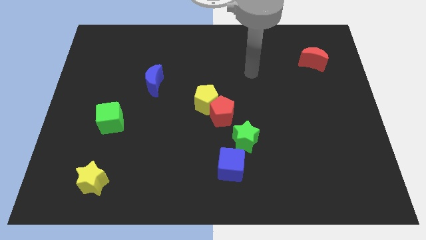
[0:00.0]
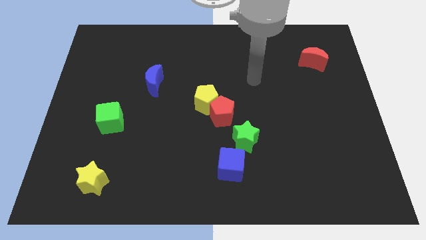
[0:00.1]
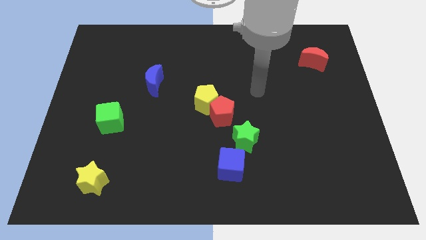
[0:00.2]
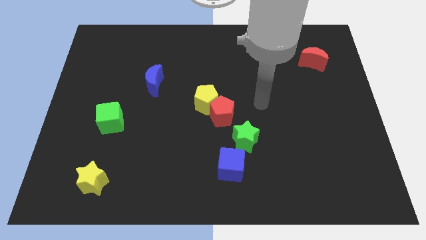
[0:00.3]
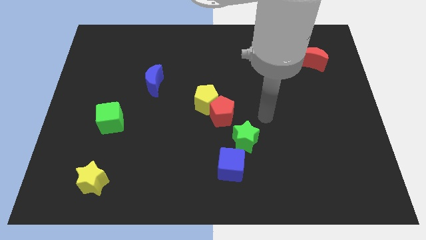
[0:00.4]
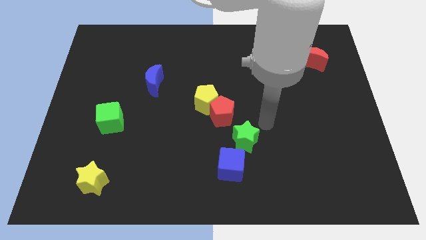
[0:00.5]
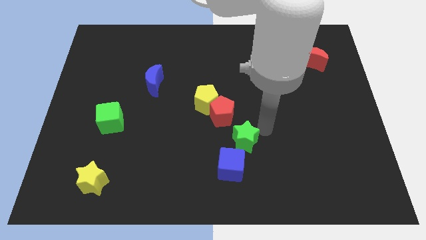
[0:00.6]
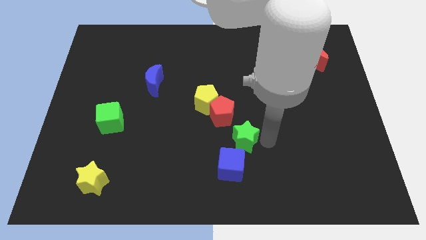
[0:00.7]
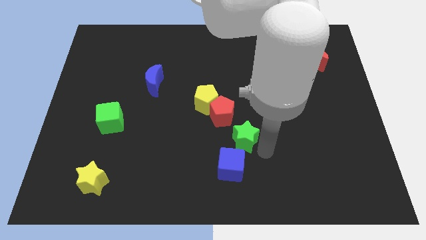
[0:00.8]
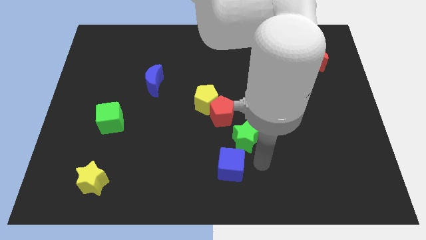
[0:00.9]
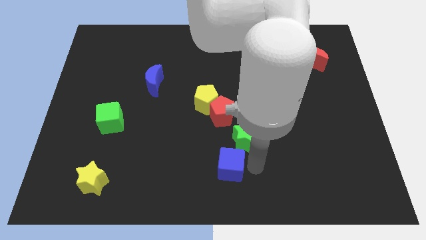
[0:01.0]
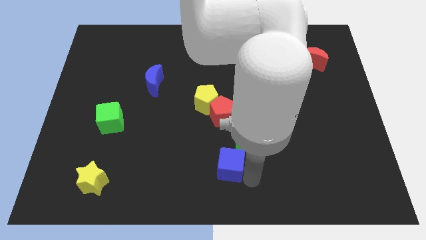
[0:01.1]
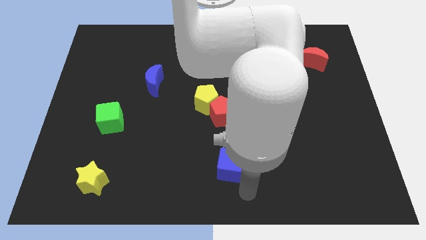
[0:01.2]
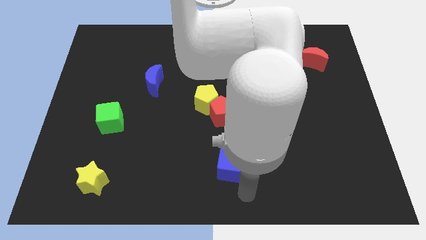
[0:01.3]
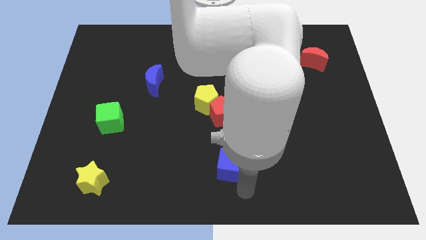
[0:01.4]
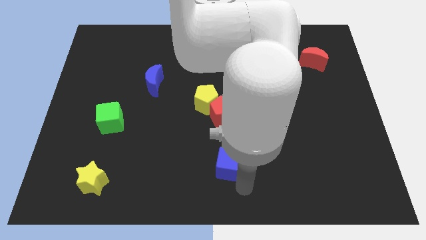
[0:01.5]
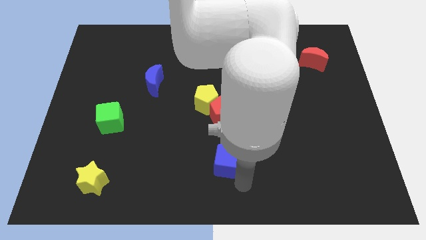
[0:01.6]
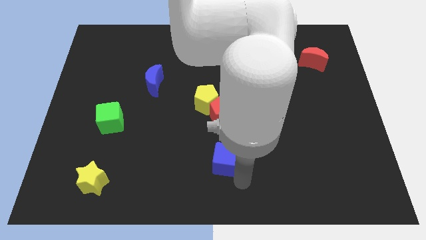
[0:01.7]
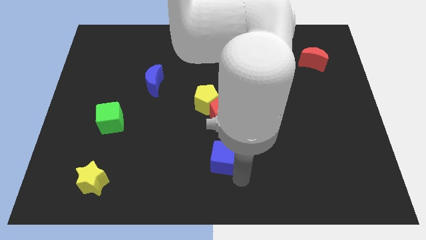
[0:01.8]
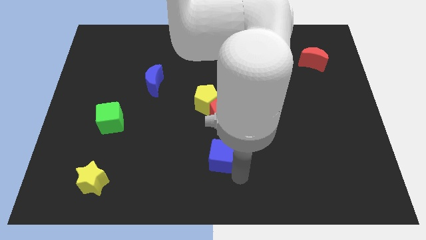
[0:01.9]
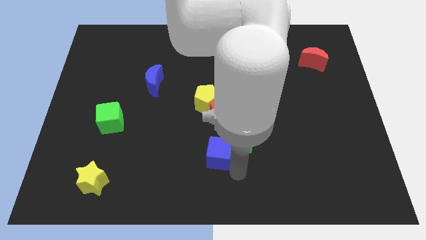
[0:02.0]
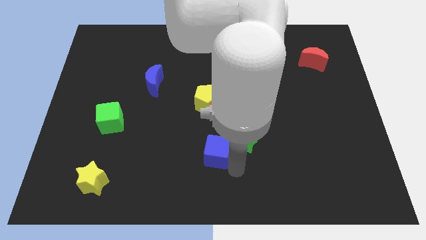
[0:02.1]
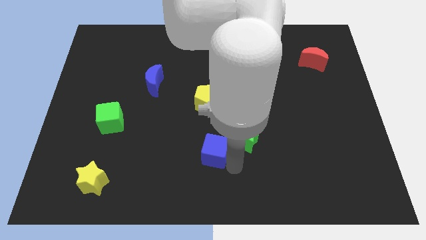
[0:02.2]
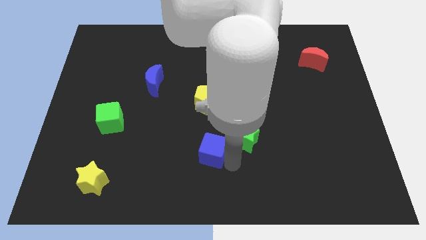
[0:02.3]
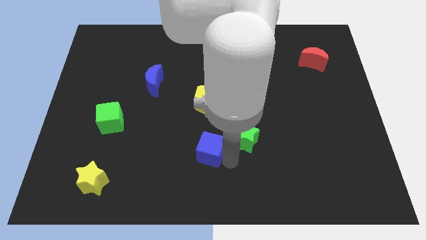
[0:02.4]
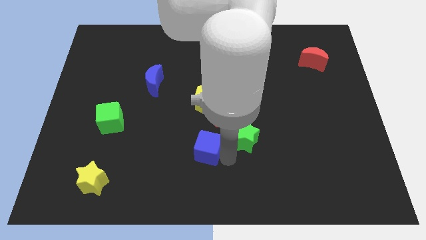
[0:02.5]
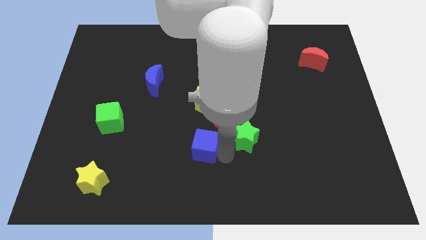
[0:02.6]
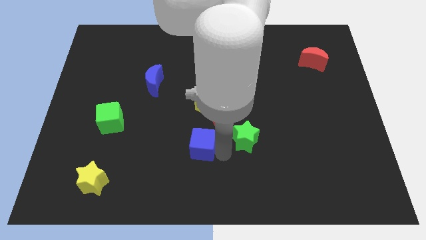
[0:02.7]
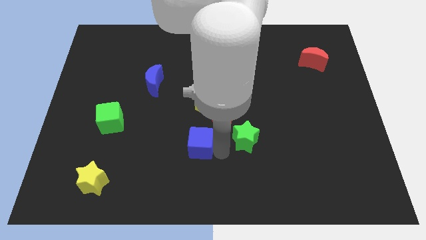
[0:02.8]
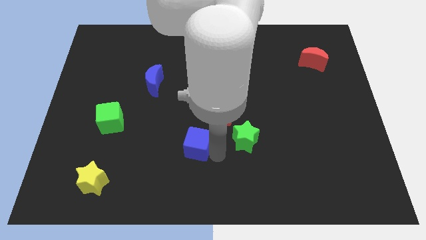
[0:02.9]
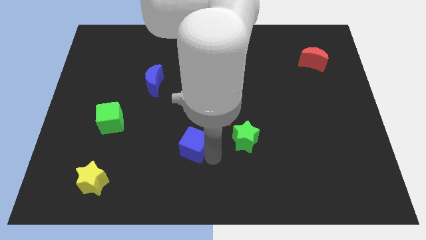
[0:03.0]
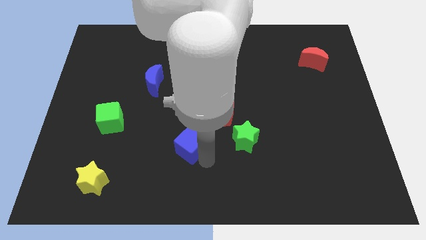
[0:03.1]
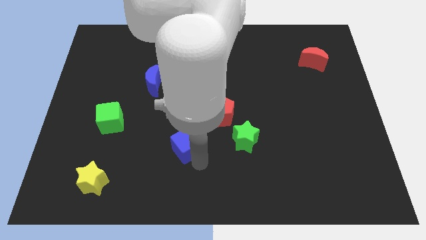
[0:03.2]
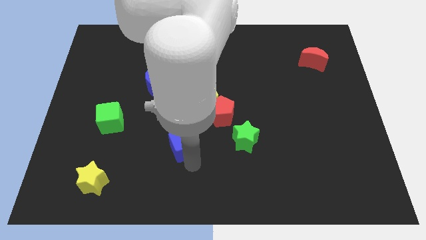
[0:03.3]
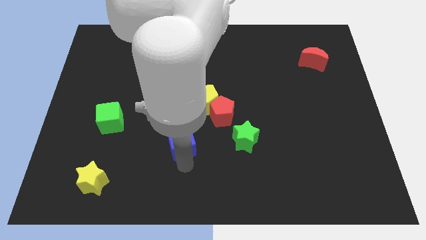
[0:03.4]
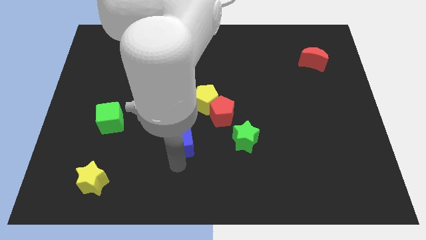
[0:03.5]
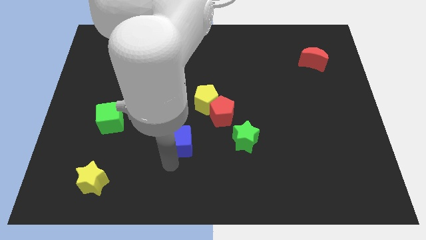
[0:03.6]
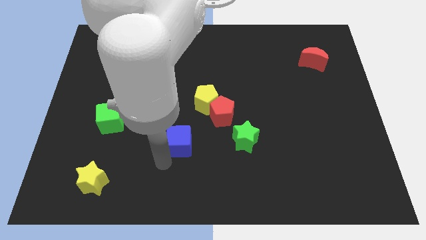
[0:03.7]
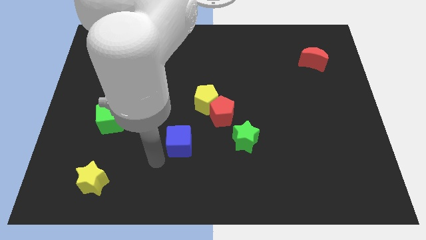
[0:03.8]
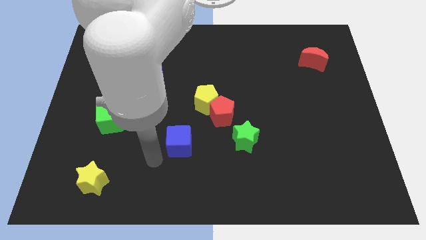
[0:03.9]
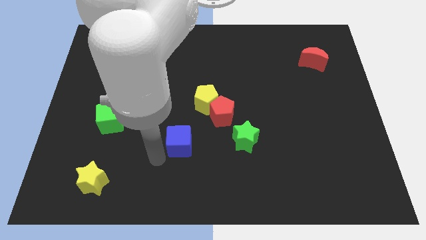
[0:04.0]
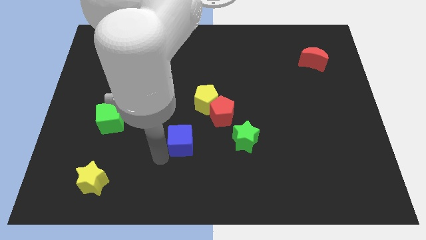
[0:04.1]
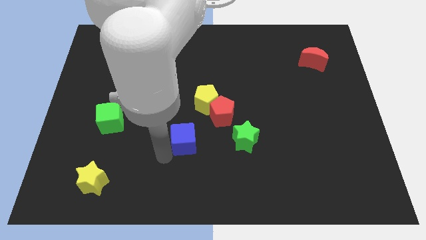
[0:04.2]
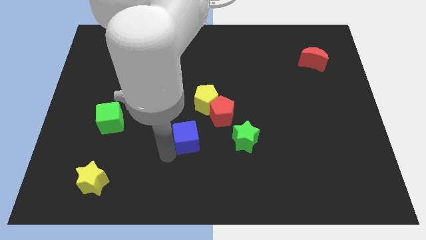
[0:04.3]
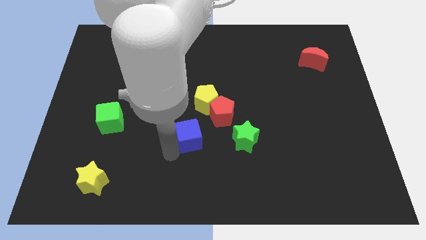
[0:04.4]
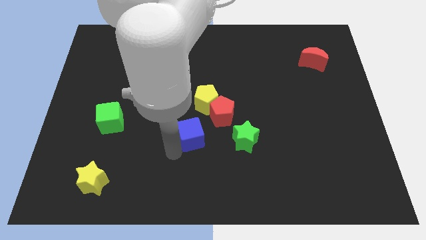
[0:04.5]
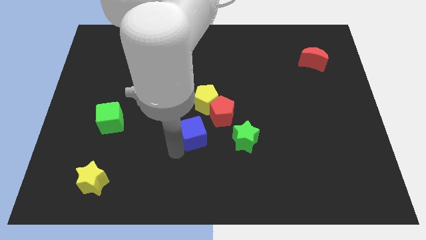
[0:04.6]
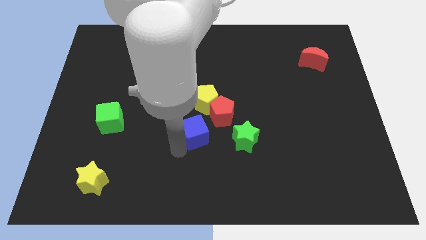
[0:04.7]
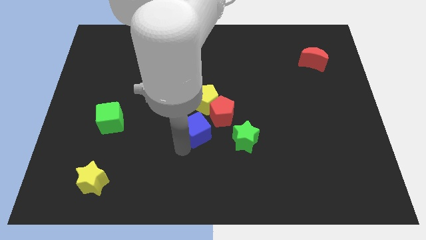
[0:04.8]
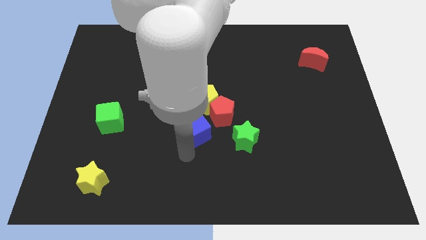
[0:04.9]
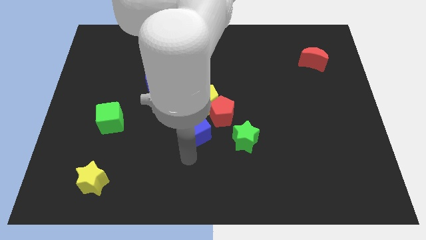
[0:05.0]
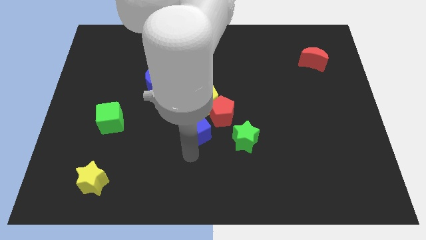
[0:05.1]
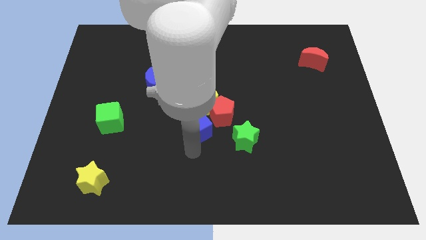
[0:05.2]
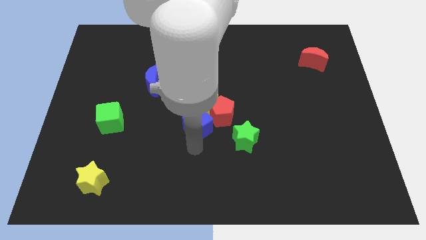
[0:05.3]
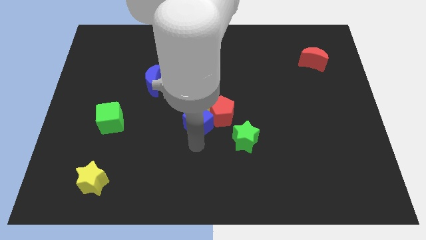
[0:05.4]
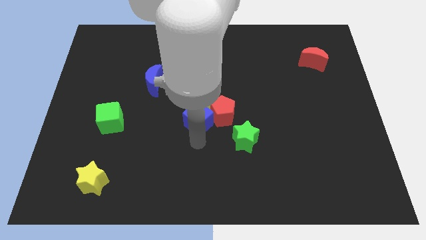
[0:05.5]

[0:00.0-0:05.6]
move the blue cube next to the yellow pentagon

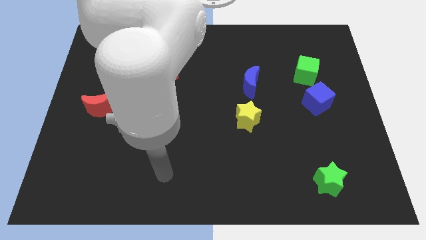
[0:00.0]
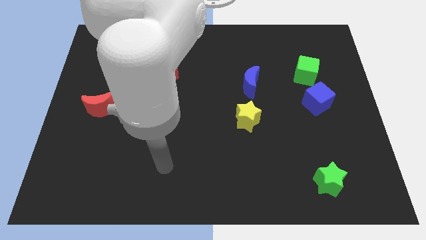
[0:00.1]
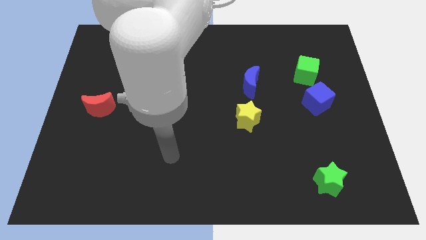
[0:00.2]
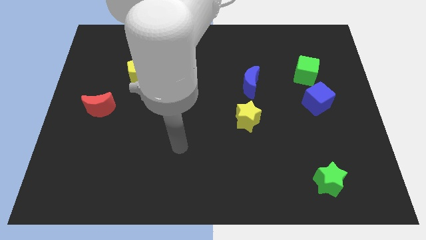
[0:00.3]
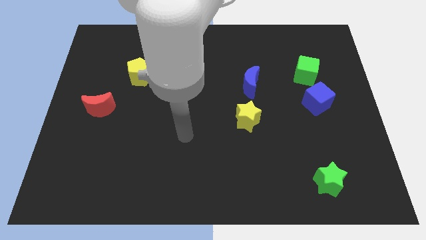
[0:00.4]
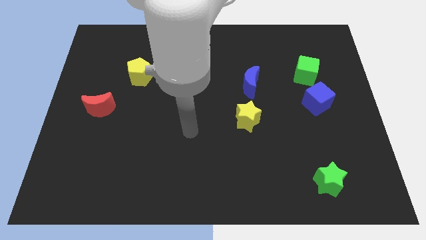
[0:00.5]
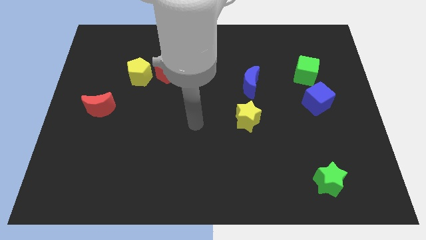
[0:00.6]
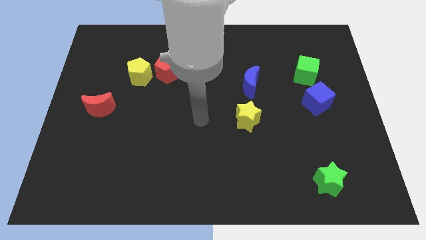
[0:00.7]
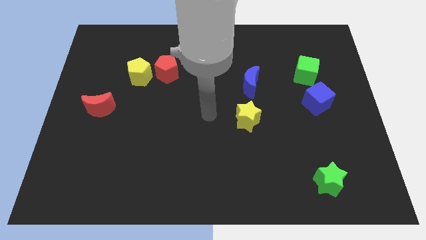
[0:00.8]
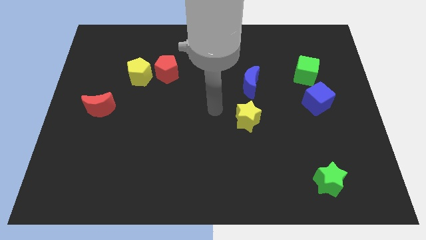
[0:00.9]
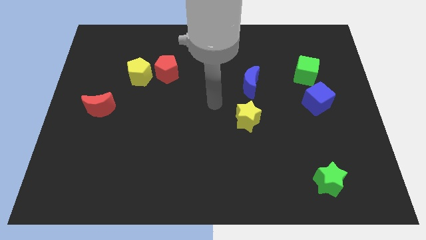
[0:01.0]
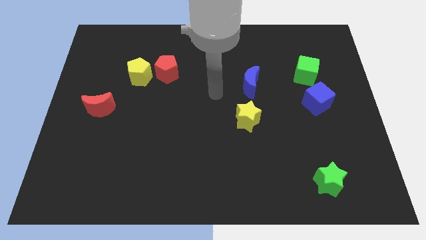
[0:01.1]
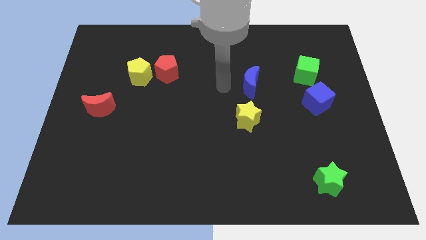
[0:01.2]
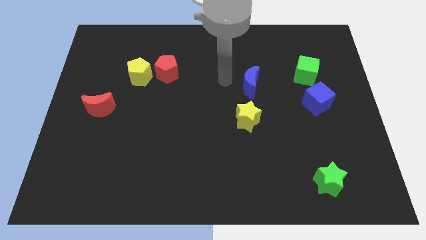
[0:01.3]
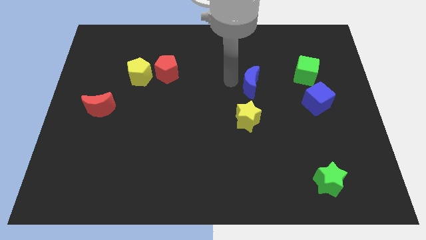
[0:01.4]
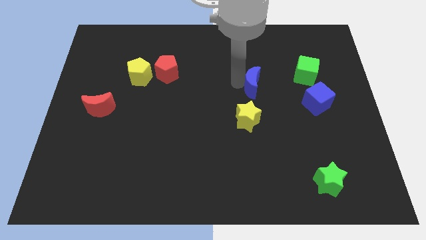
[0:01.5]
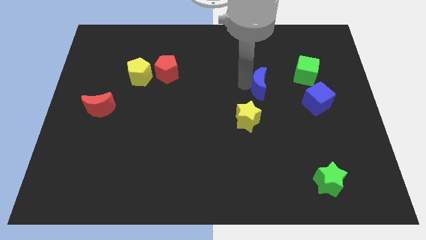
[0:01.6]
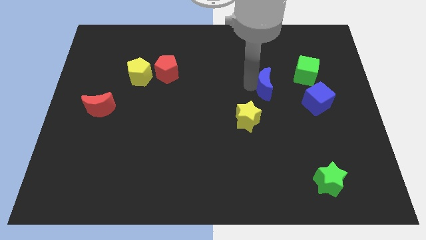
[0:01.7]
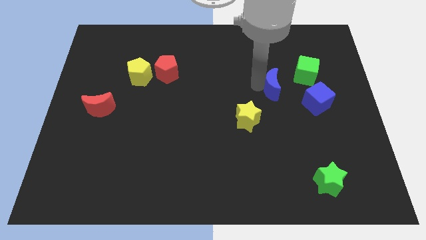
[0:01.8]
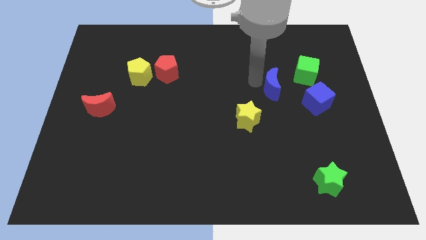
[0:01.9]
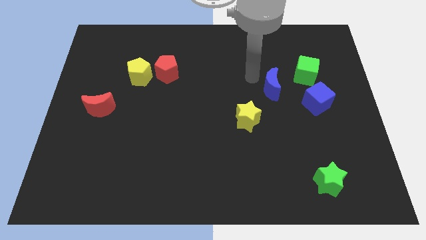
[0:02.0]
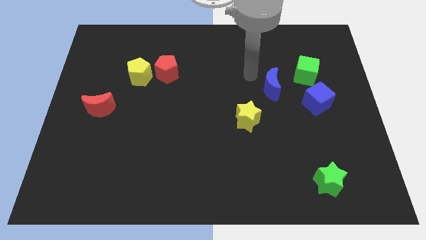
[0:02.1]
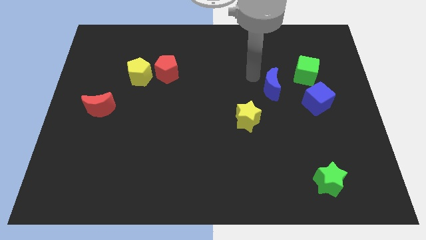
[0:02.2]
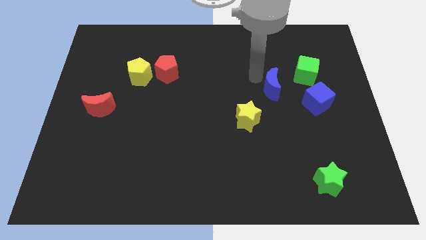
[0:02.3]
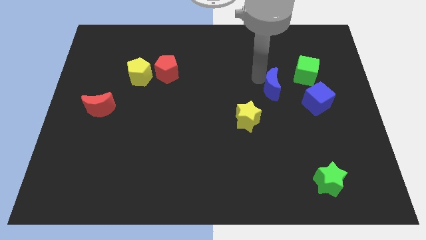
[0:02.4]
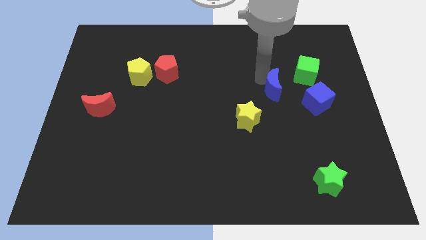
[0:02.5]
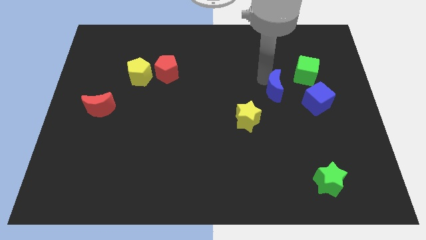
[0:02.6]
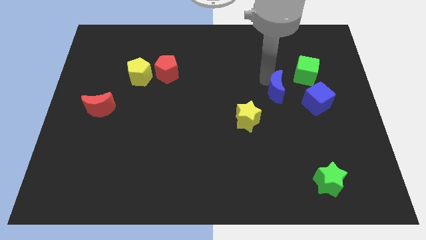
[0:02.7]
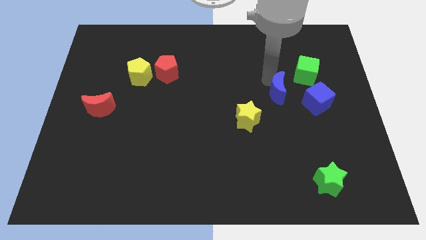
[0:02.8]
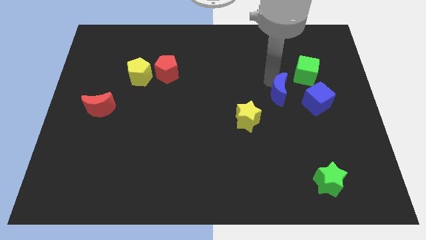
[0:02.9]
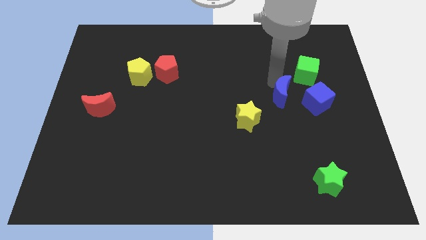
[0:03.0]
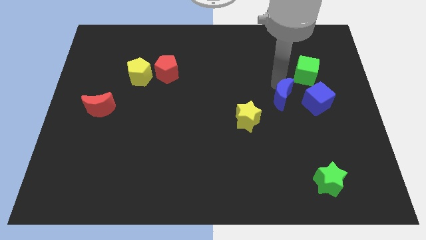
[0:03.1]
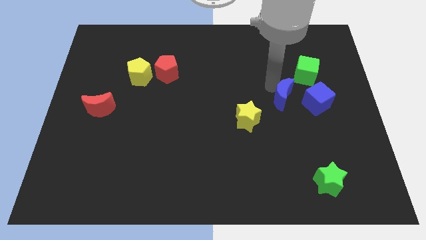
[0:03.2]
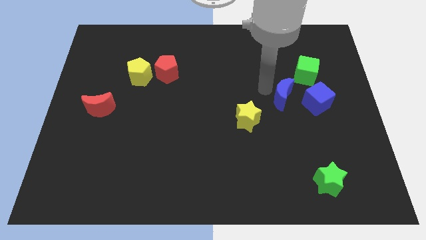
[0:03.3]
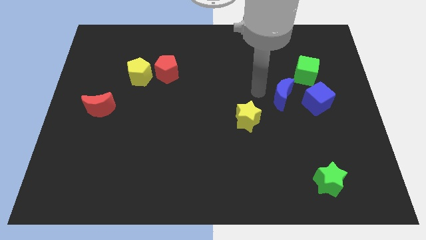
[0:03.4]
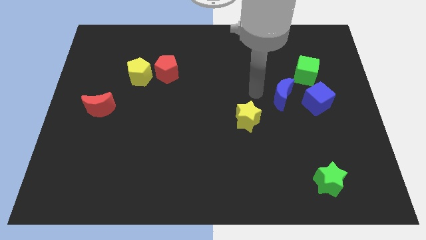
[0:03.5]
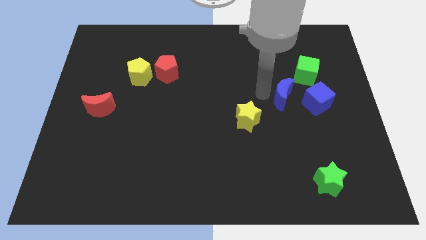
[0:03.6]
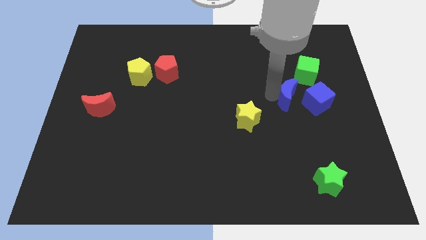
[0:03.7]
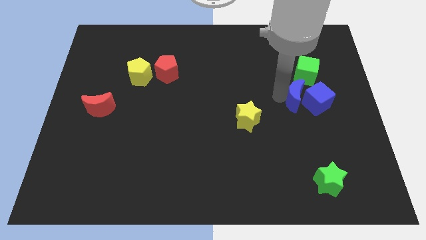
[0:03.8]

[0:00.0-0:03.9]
push the blue moon close to the blue cube
